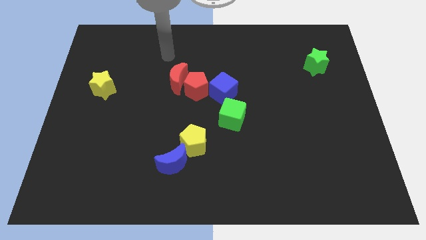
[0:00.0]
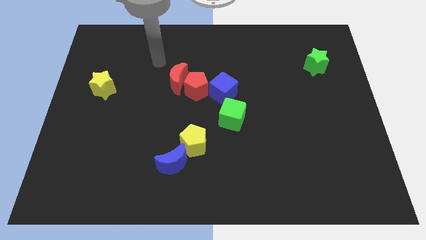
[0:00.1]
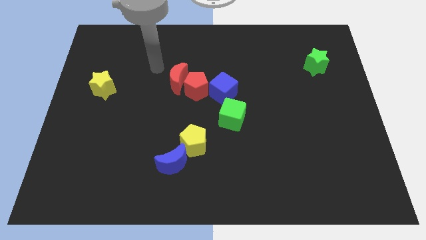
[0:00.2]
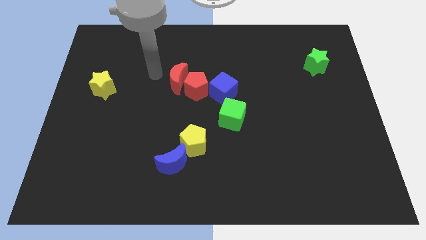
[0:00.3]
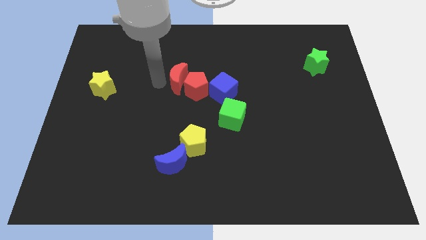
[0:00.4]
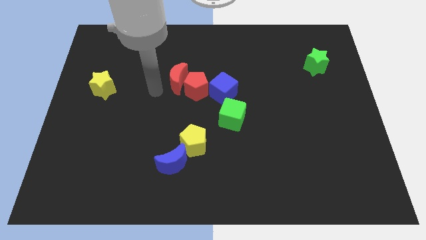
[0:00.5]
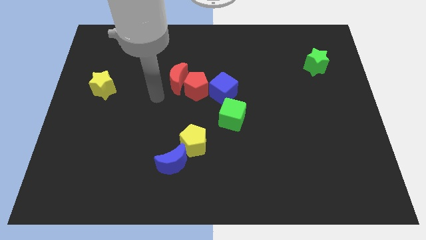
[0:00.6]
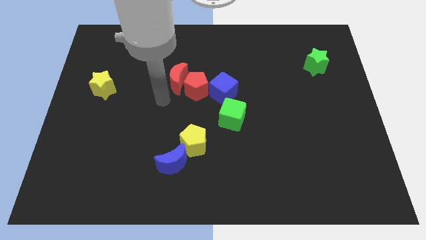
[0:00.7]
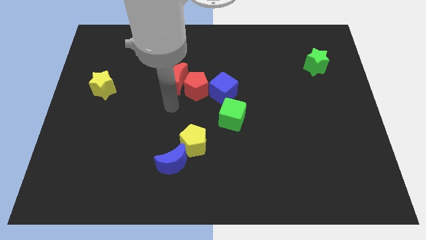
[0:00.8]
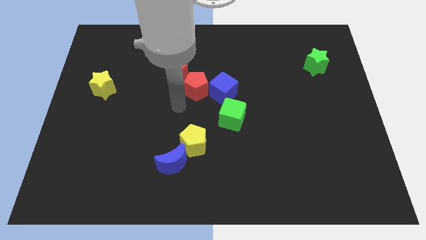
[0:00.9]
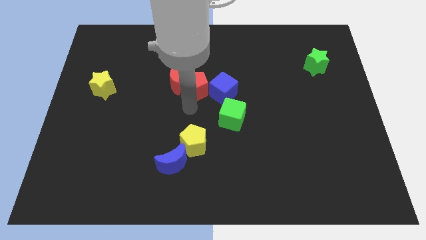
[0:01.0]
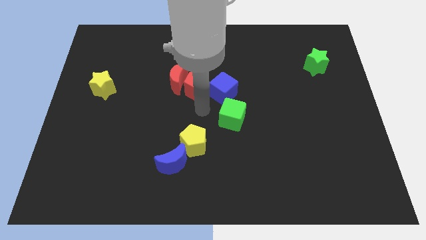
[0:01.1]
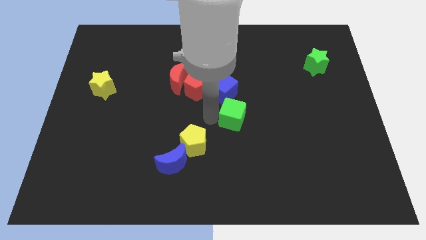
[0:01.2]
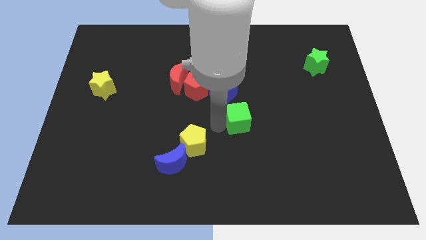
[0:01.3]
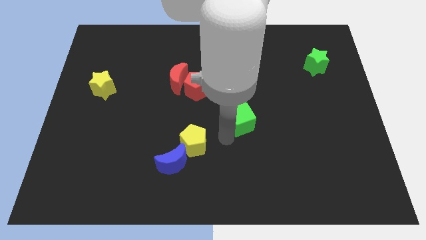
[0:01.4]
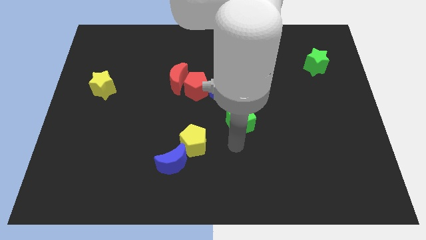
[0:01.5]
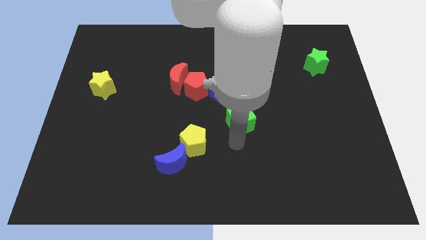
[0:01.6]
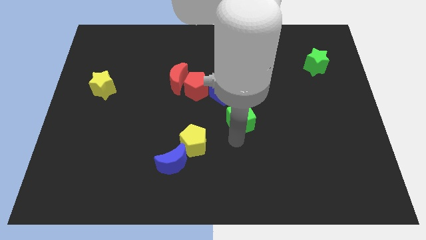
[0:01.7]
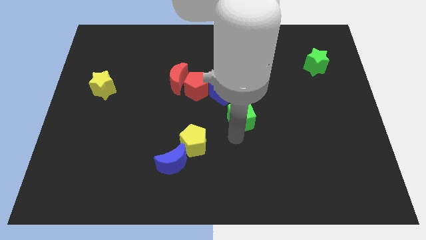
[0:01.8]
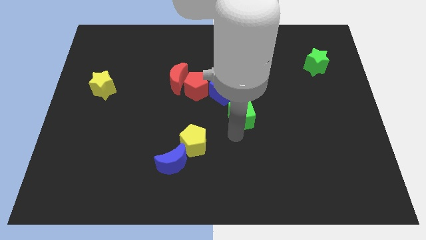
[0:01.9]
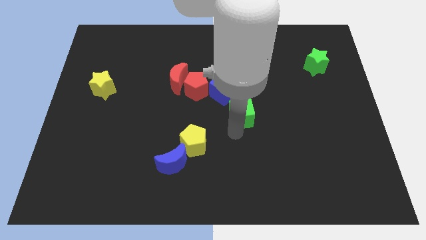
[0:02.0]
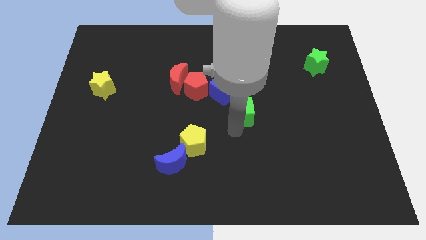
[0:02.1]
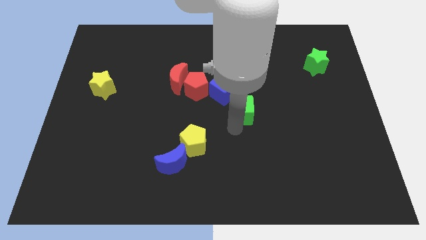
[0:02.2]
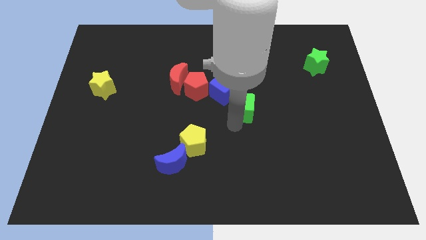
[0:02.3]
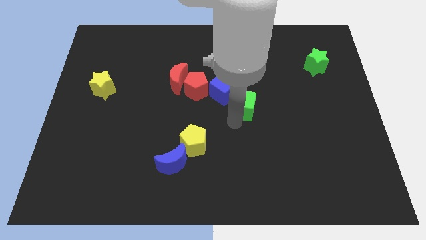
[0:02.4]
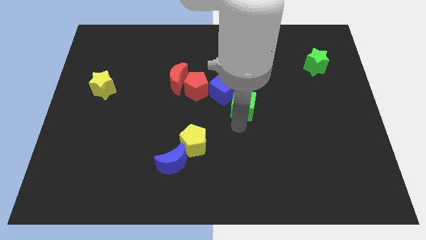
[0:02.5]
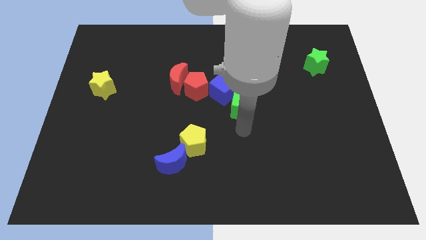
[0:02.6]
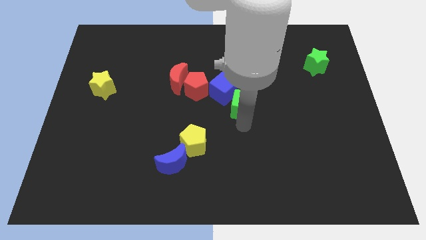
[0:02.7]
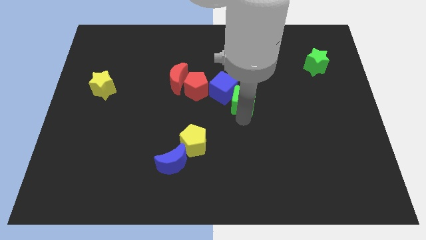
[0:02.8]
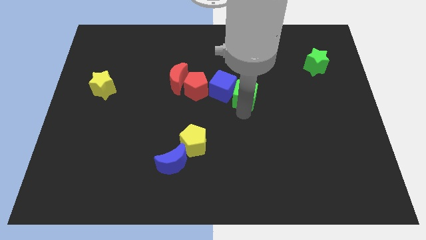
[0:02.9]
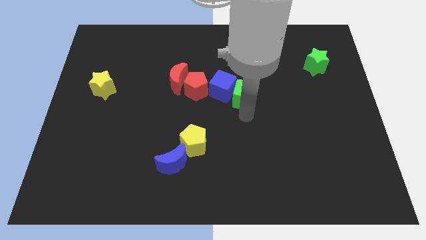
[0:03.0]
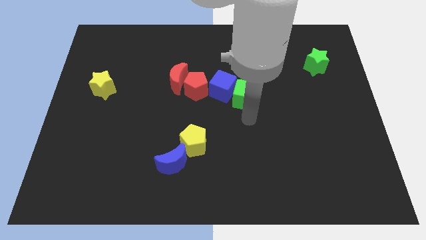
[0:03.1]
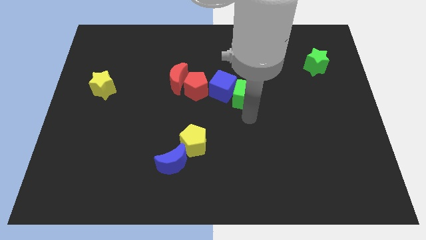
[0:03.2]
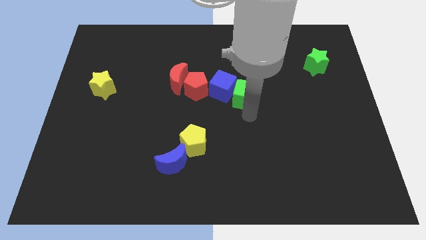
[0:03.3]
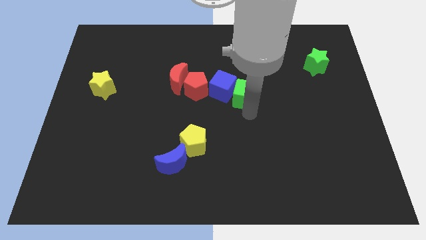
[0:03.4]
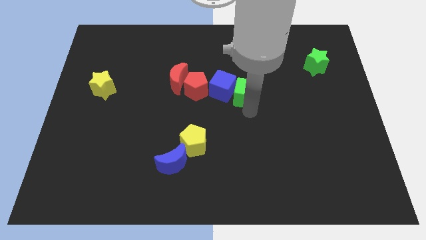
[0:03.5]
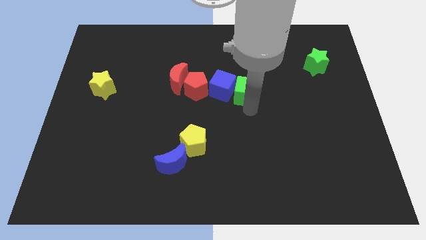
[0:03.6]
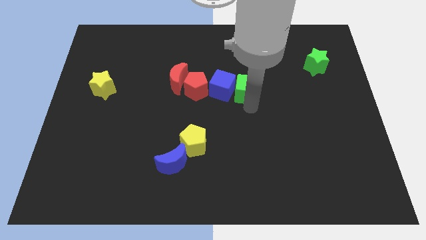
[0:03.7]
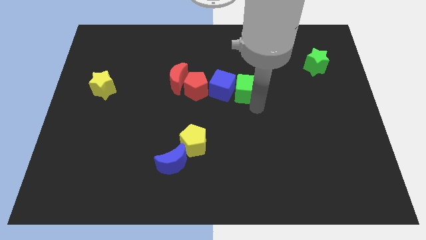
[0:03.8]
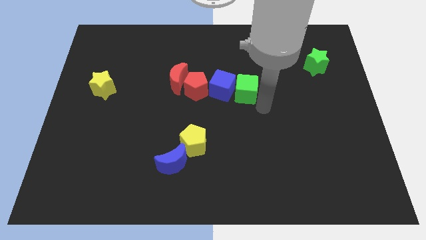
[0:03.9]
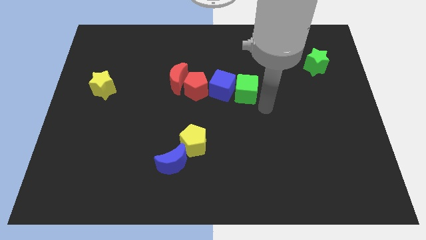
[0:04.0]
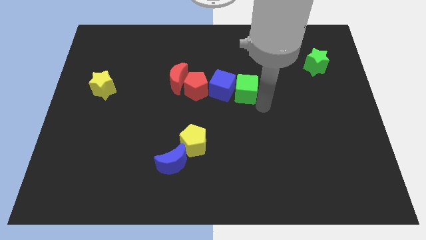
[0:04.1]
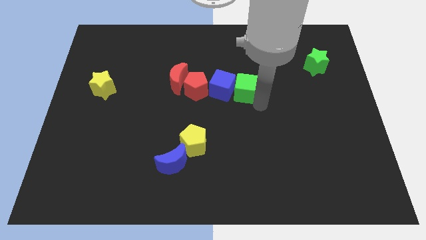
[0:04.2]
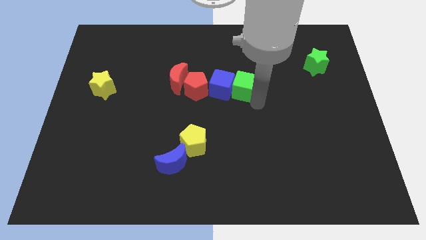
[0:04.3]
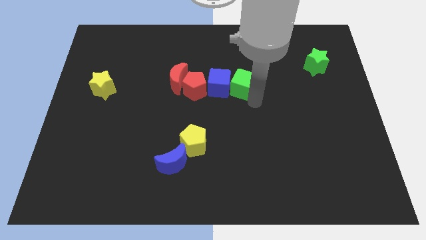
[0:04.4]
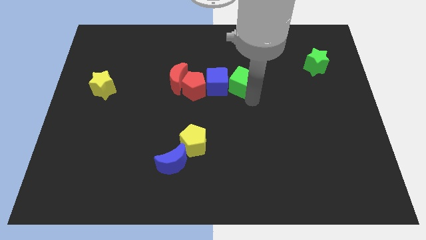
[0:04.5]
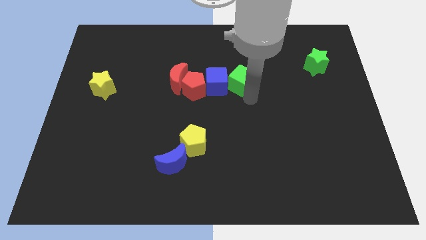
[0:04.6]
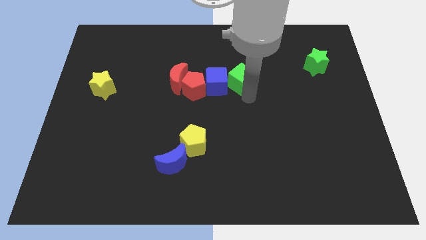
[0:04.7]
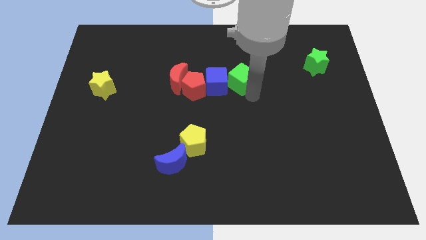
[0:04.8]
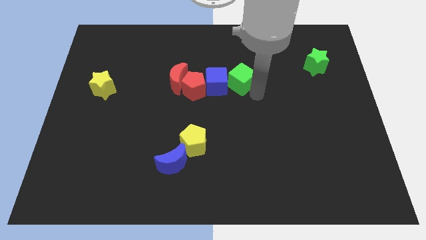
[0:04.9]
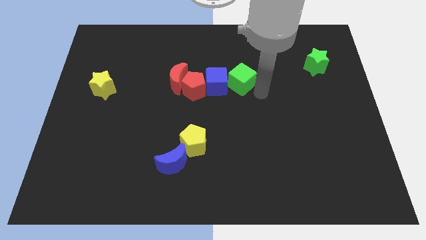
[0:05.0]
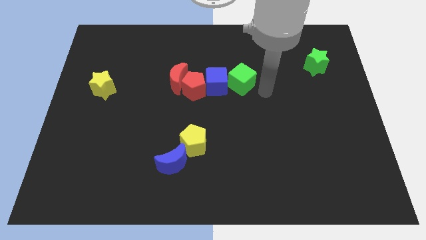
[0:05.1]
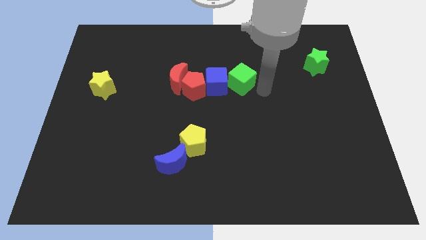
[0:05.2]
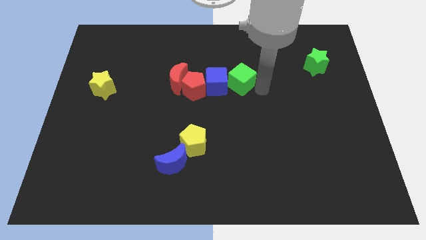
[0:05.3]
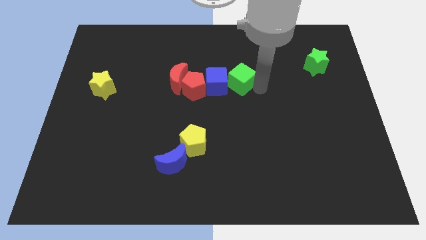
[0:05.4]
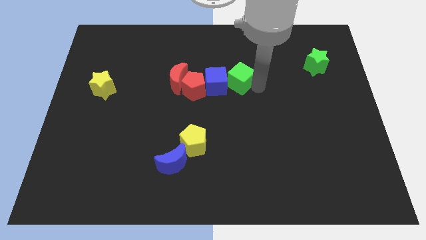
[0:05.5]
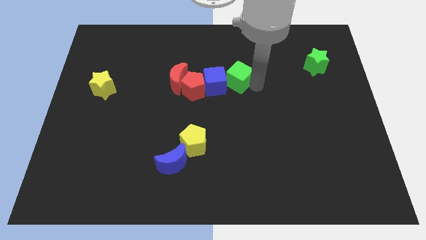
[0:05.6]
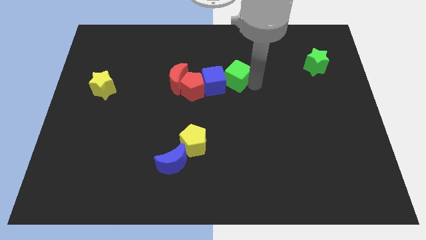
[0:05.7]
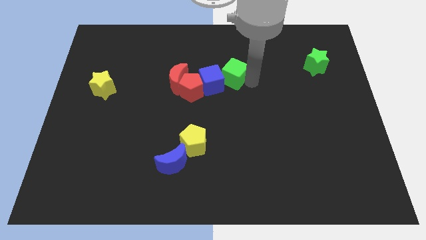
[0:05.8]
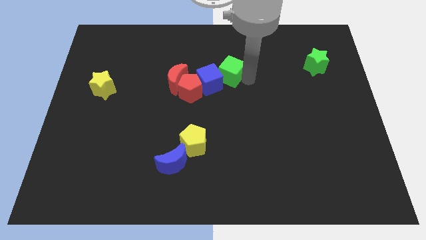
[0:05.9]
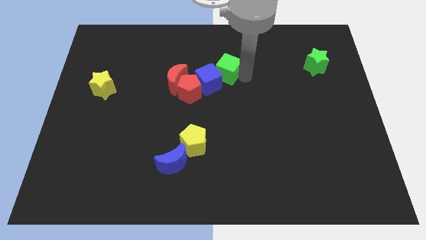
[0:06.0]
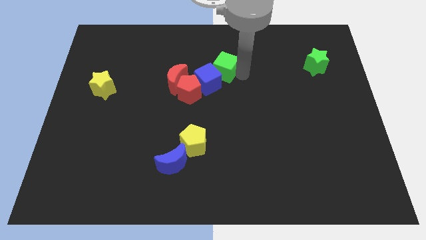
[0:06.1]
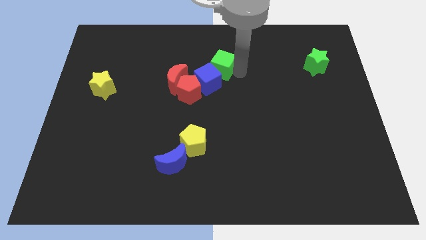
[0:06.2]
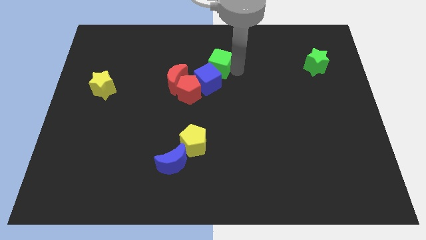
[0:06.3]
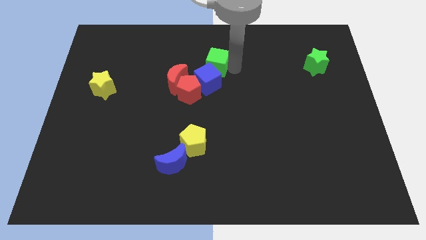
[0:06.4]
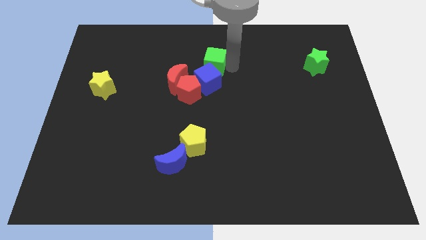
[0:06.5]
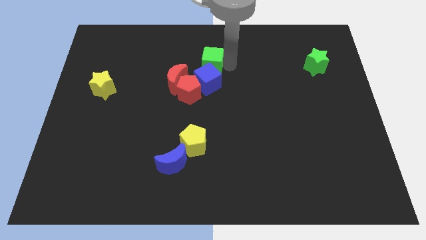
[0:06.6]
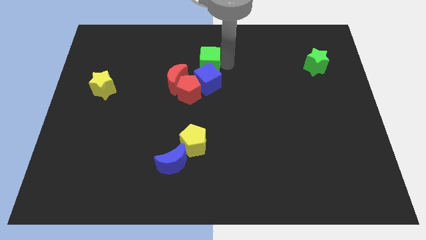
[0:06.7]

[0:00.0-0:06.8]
slide the green cube to the top left of the blue cube
